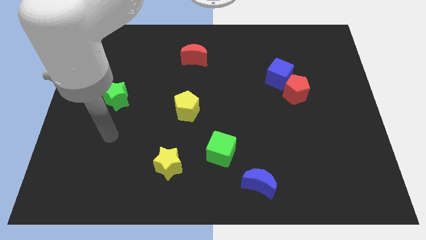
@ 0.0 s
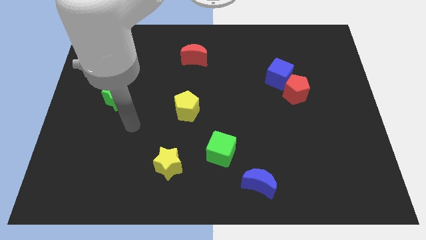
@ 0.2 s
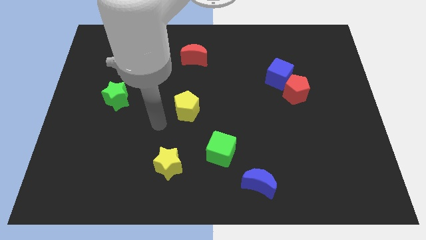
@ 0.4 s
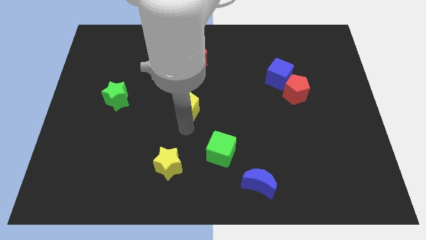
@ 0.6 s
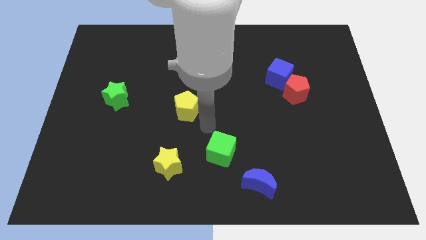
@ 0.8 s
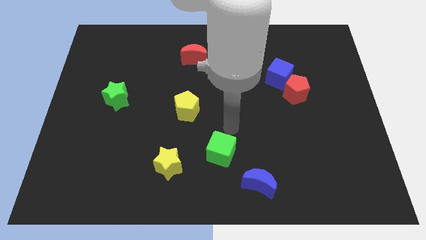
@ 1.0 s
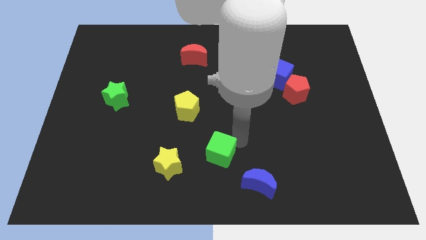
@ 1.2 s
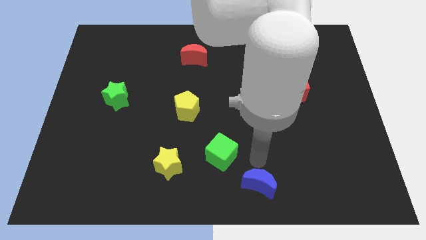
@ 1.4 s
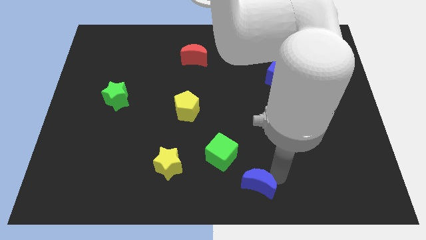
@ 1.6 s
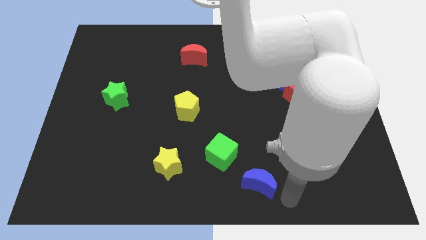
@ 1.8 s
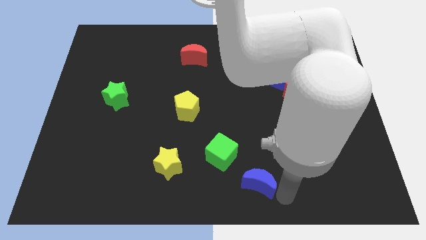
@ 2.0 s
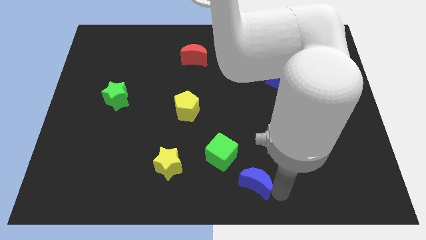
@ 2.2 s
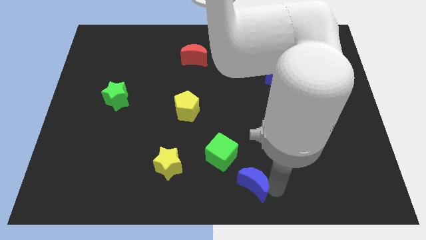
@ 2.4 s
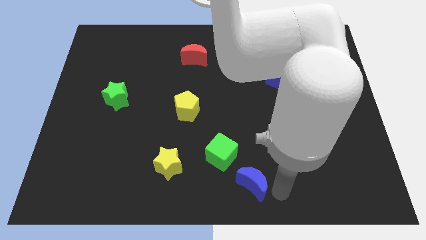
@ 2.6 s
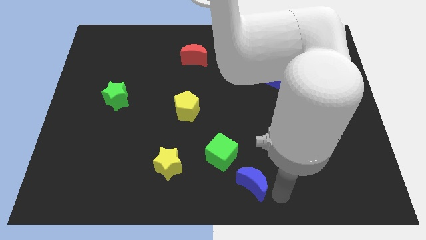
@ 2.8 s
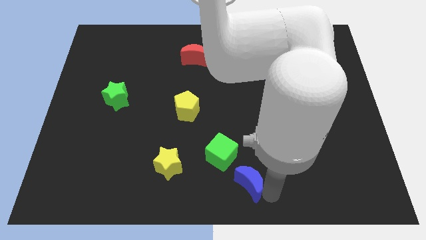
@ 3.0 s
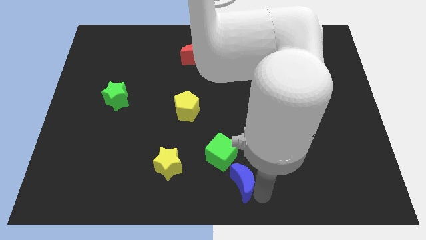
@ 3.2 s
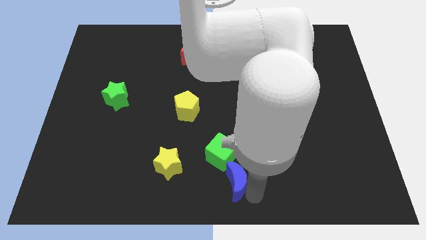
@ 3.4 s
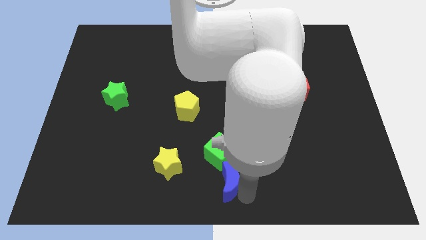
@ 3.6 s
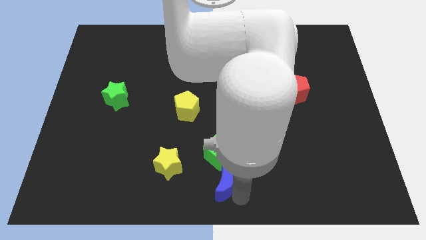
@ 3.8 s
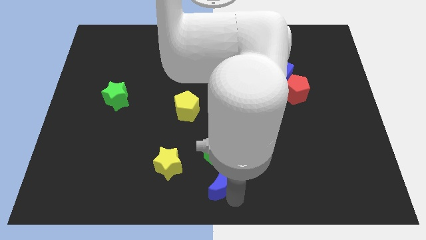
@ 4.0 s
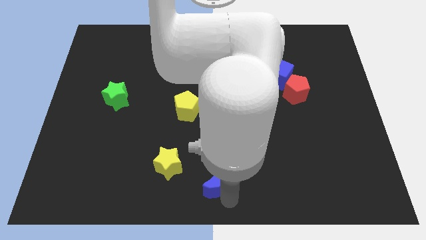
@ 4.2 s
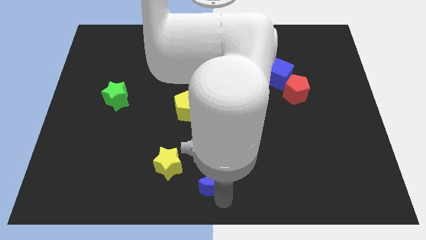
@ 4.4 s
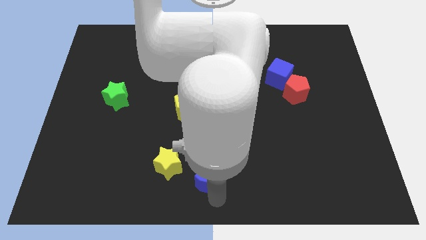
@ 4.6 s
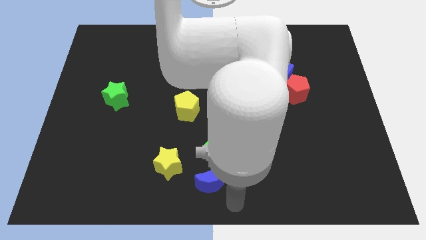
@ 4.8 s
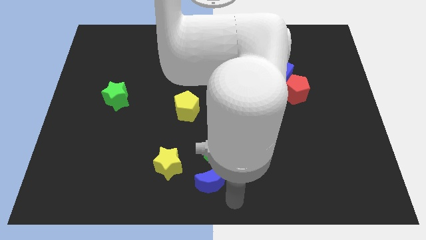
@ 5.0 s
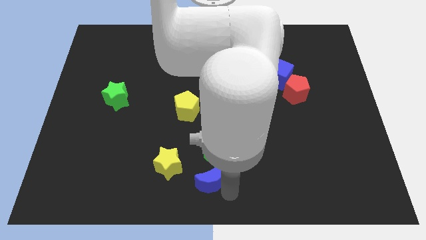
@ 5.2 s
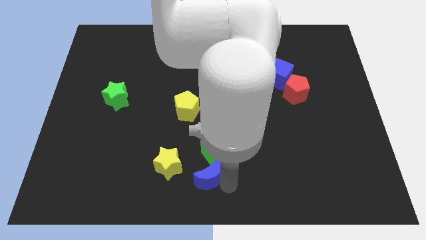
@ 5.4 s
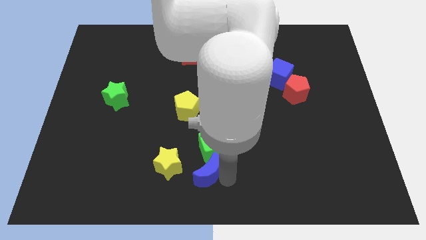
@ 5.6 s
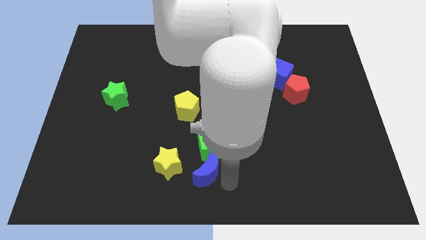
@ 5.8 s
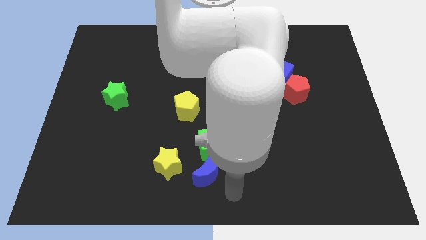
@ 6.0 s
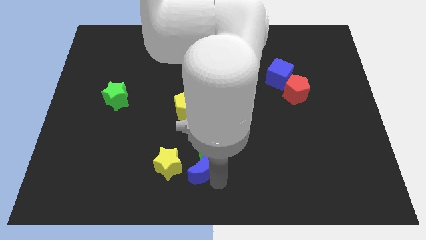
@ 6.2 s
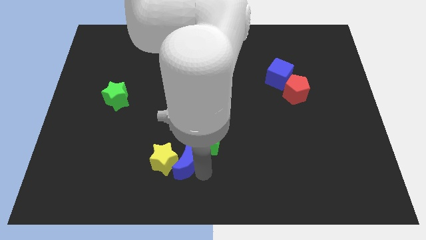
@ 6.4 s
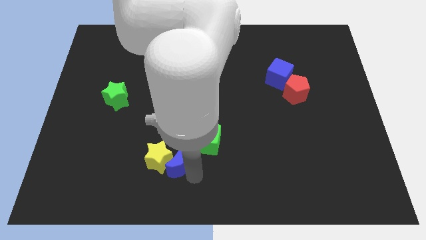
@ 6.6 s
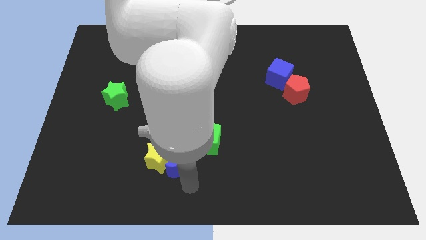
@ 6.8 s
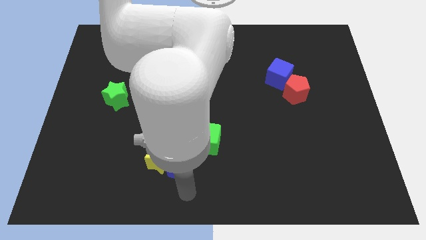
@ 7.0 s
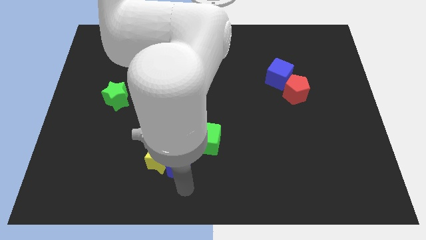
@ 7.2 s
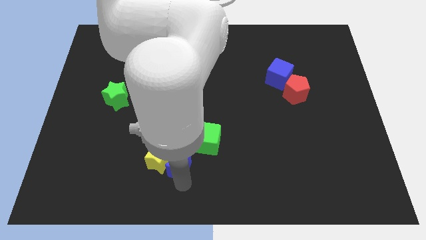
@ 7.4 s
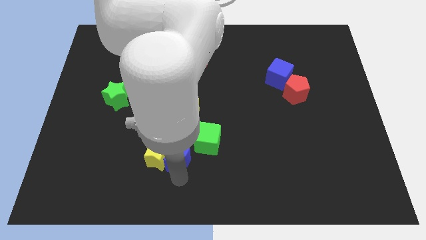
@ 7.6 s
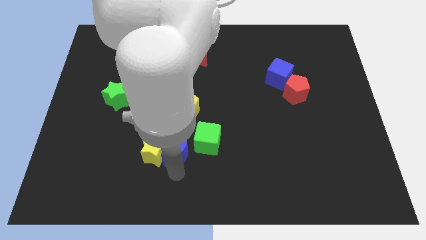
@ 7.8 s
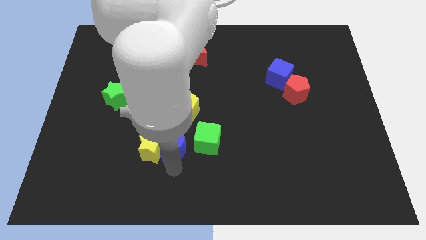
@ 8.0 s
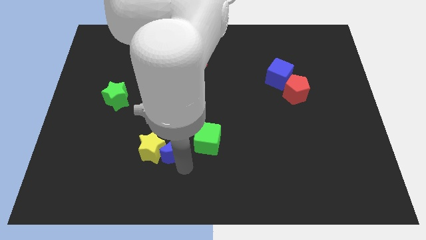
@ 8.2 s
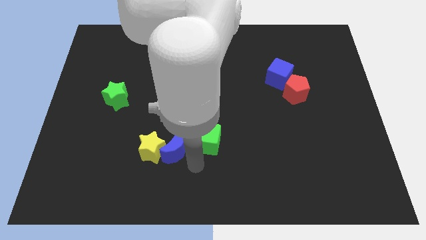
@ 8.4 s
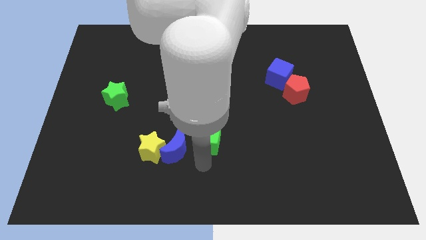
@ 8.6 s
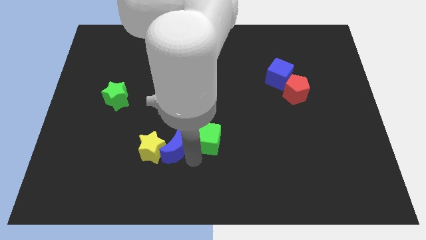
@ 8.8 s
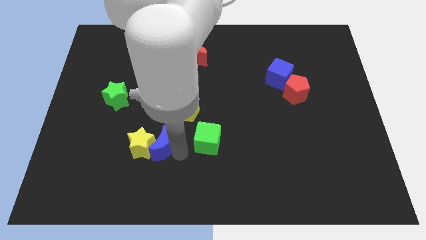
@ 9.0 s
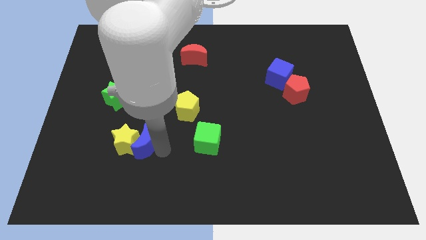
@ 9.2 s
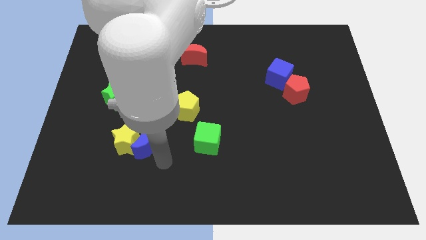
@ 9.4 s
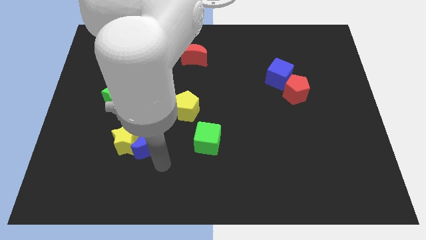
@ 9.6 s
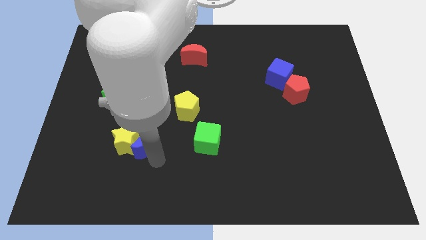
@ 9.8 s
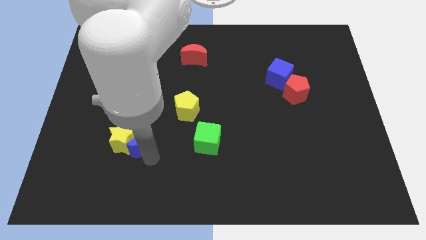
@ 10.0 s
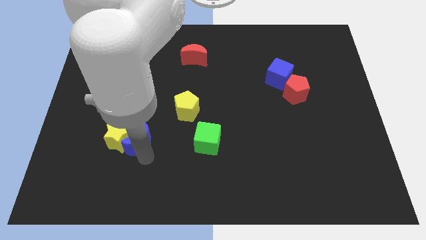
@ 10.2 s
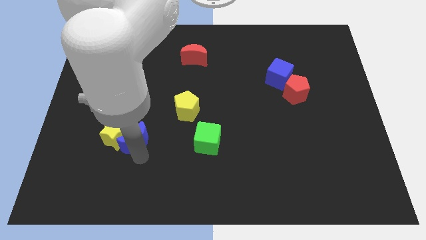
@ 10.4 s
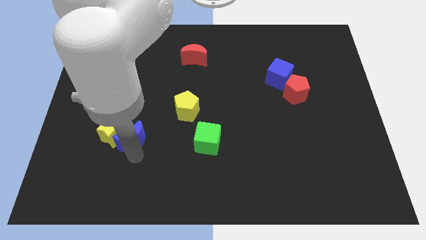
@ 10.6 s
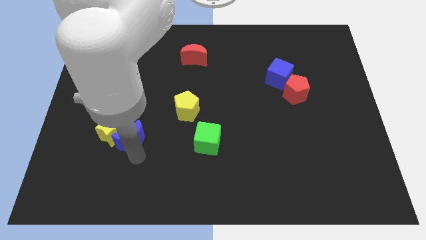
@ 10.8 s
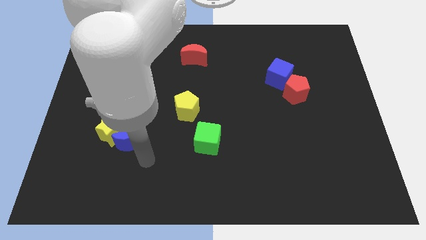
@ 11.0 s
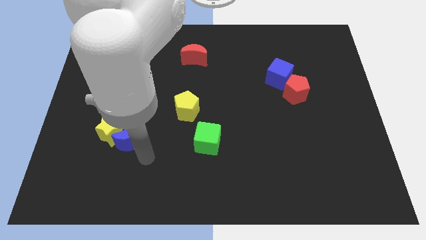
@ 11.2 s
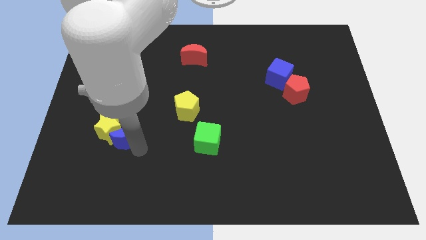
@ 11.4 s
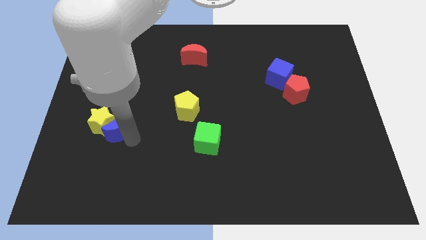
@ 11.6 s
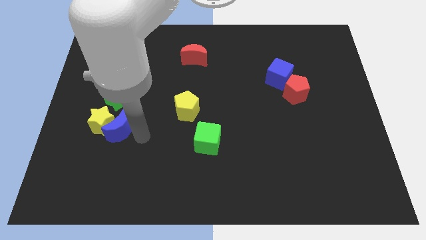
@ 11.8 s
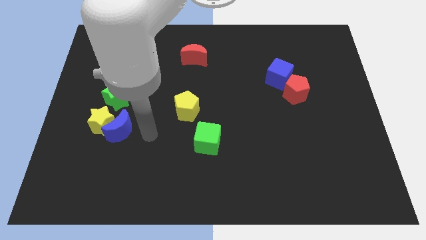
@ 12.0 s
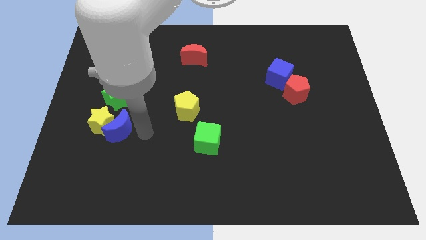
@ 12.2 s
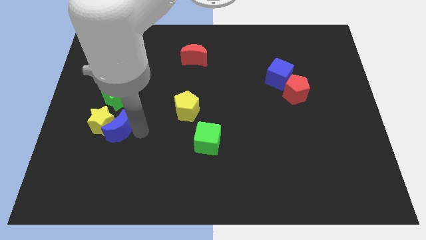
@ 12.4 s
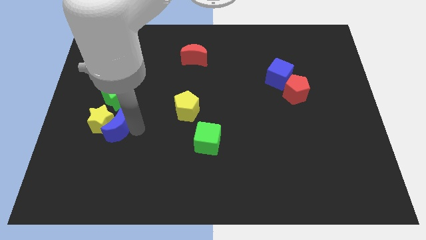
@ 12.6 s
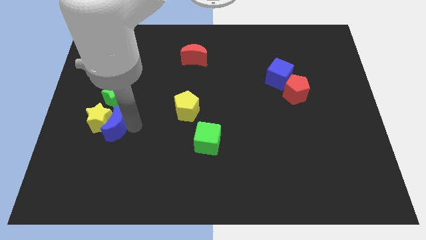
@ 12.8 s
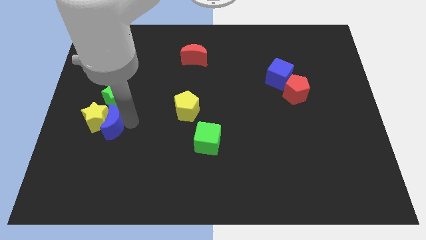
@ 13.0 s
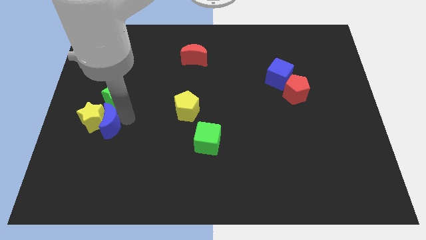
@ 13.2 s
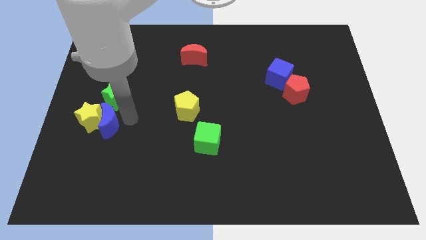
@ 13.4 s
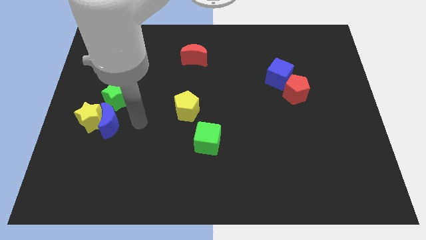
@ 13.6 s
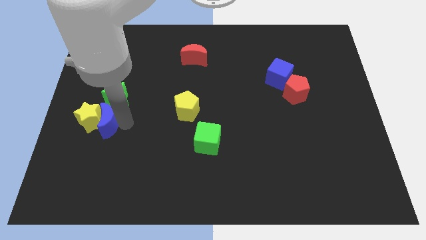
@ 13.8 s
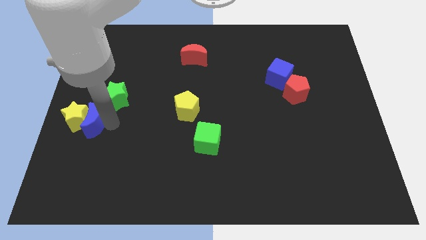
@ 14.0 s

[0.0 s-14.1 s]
slide the blue moon to the left side of the board
